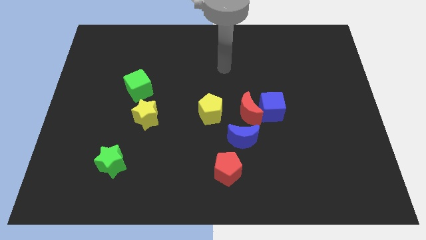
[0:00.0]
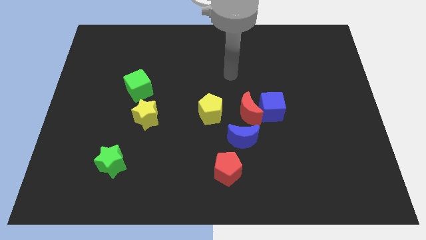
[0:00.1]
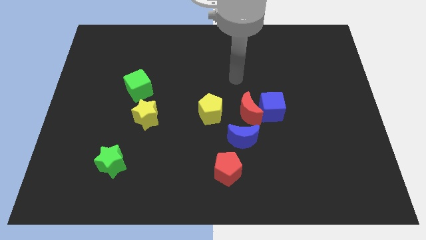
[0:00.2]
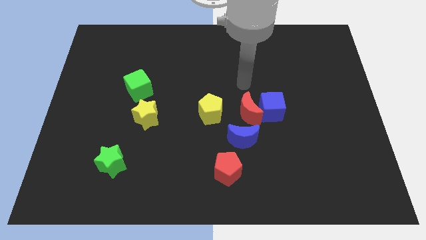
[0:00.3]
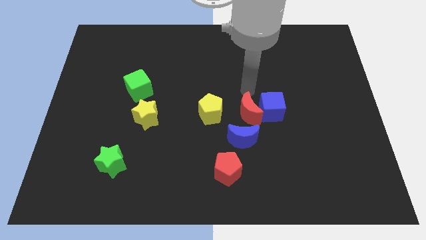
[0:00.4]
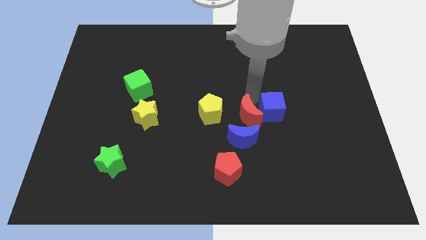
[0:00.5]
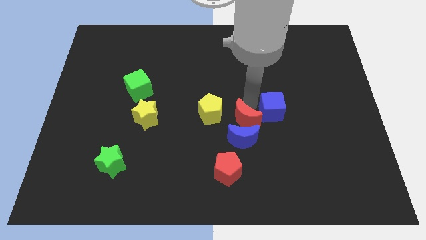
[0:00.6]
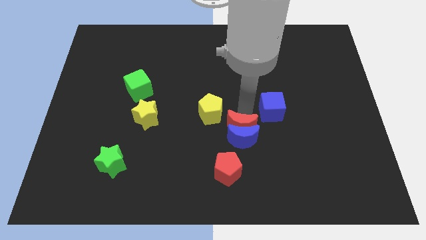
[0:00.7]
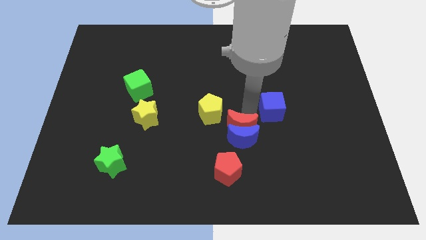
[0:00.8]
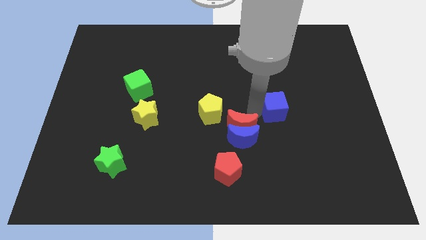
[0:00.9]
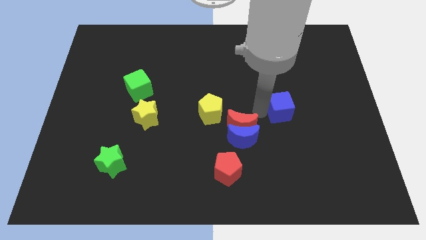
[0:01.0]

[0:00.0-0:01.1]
pull the blue cube apart from the red moon

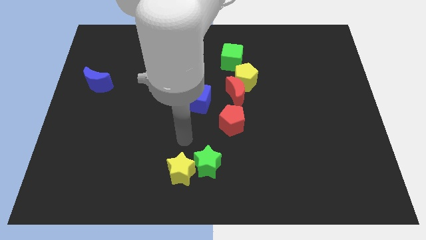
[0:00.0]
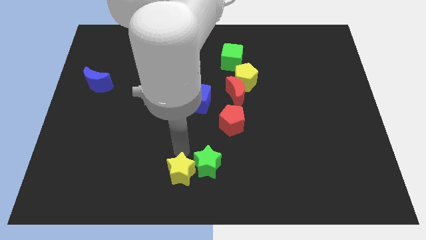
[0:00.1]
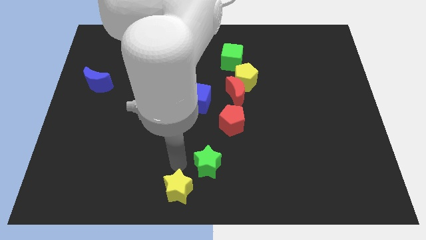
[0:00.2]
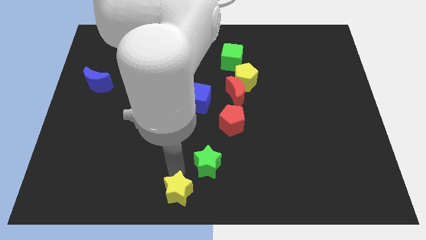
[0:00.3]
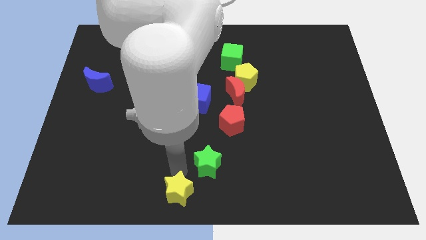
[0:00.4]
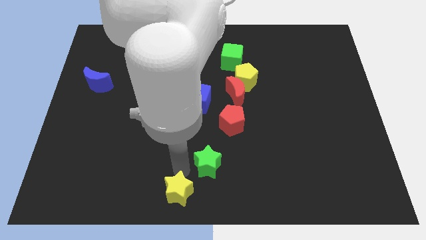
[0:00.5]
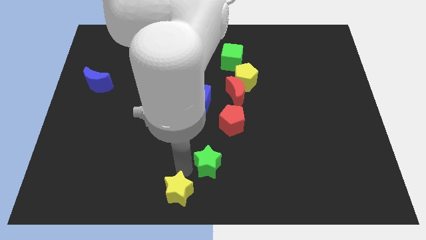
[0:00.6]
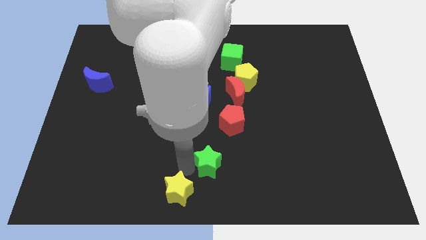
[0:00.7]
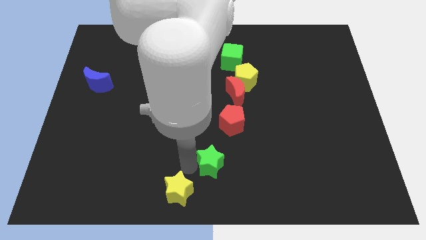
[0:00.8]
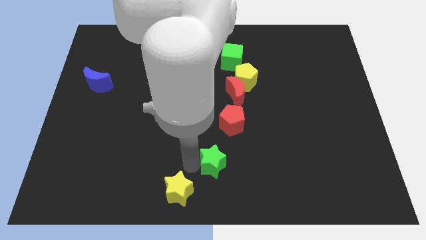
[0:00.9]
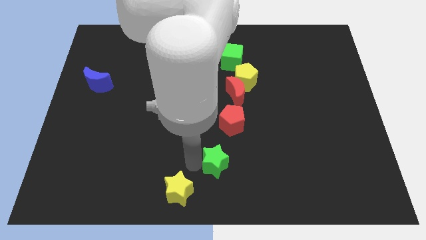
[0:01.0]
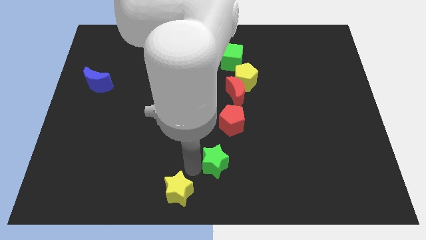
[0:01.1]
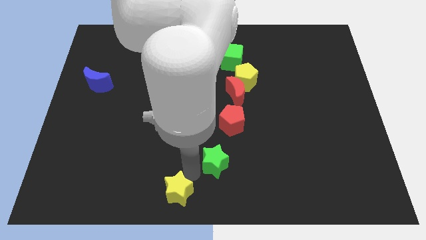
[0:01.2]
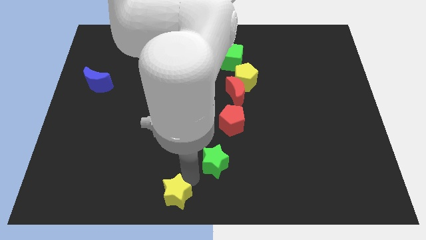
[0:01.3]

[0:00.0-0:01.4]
separate the green star from the yellow star

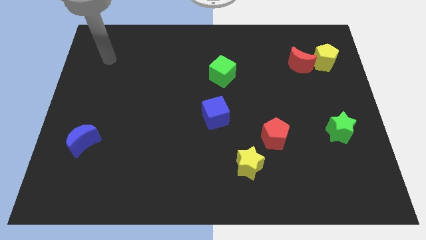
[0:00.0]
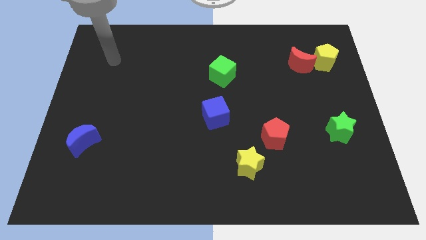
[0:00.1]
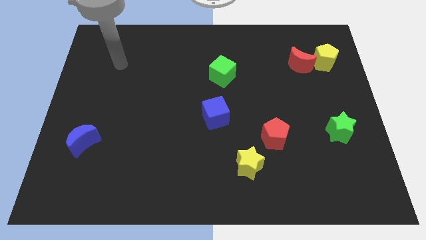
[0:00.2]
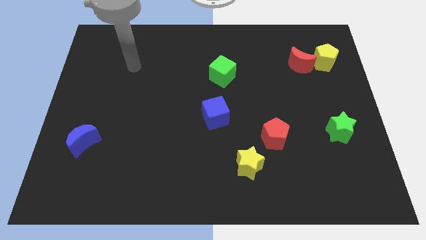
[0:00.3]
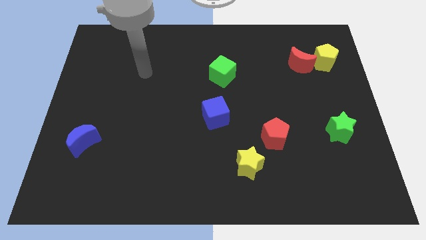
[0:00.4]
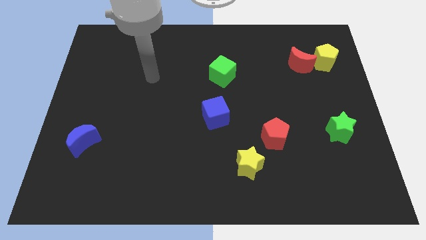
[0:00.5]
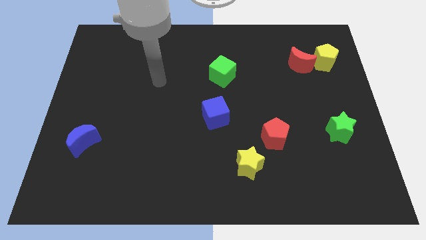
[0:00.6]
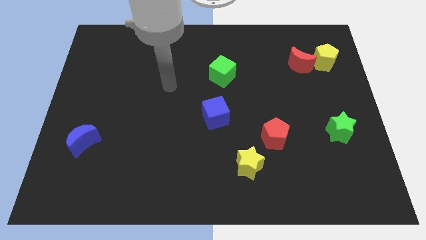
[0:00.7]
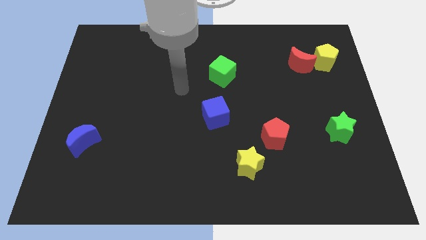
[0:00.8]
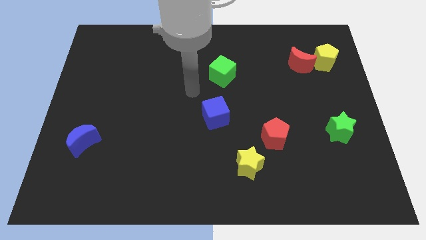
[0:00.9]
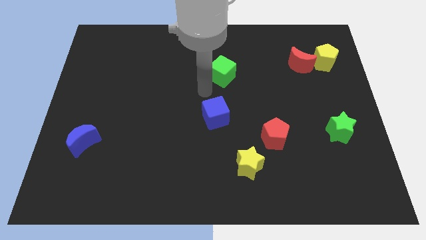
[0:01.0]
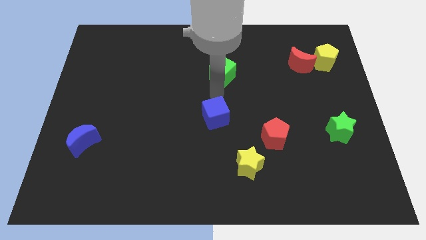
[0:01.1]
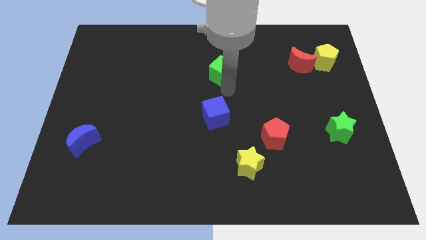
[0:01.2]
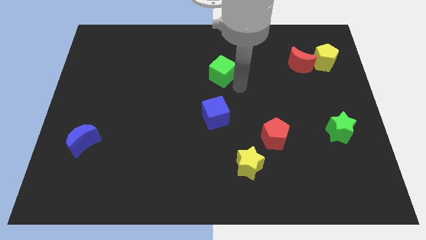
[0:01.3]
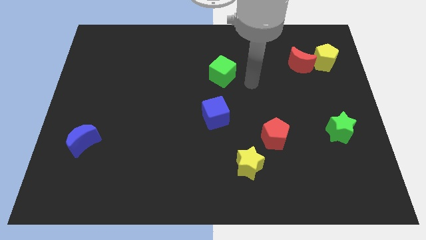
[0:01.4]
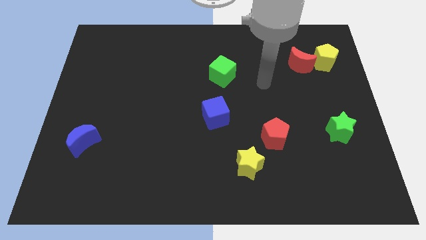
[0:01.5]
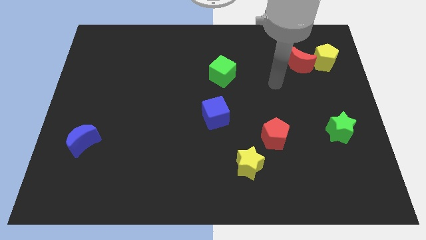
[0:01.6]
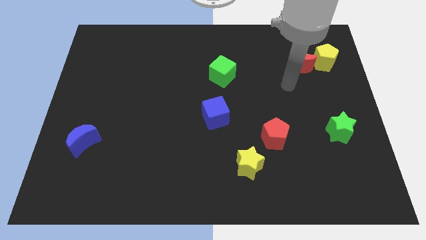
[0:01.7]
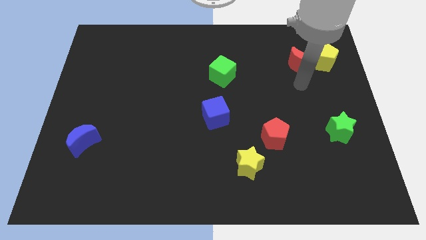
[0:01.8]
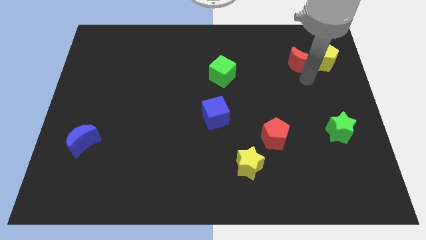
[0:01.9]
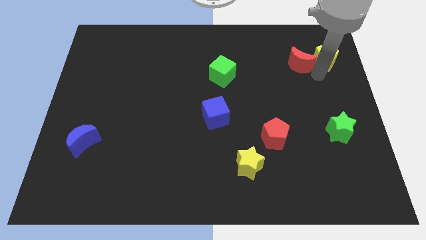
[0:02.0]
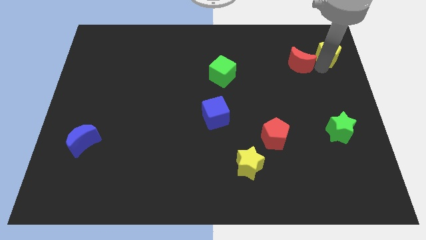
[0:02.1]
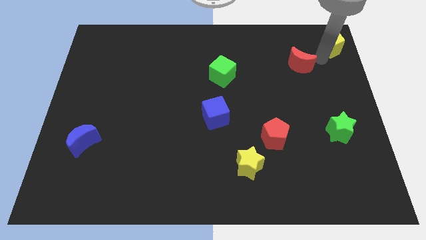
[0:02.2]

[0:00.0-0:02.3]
separate the red moon from the yellow pentagon

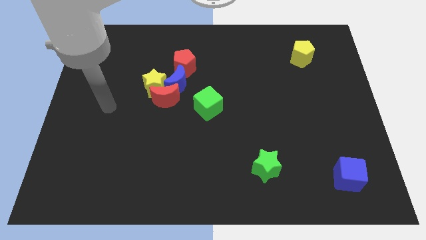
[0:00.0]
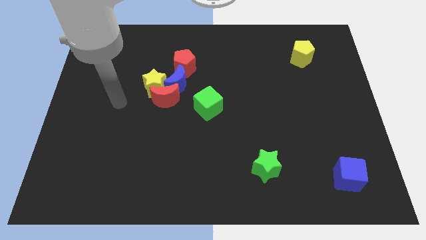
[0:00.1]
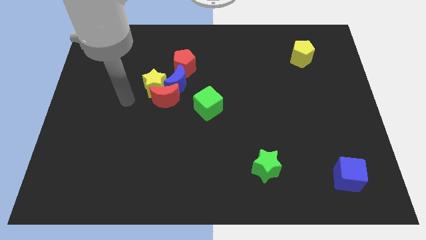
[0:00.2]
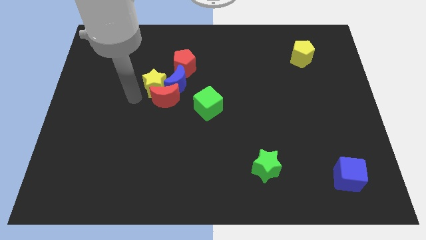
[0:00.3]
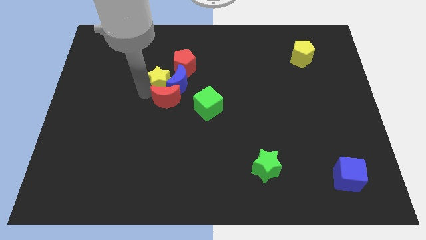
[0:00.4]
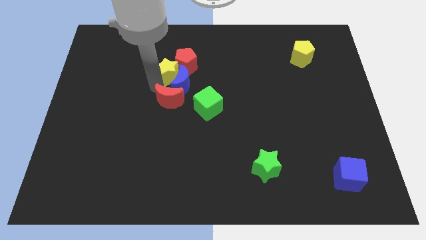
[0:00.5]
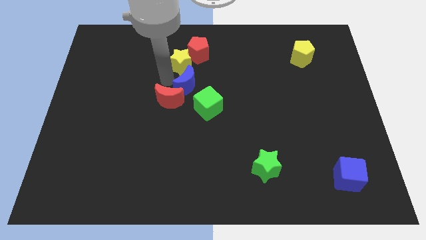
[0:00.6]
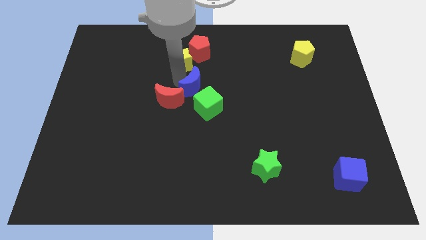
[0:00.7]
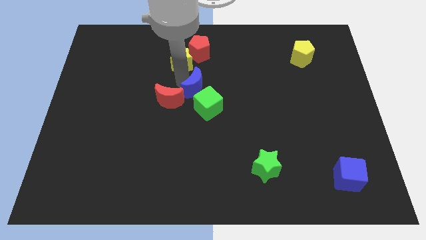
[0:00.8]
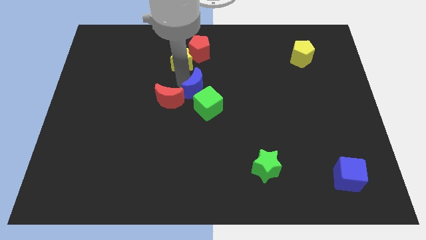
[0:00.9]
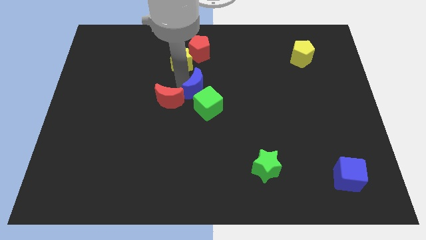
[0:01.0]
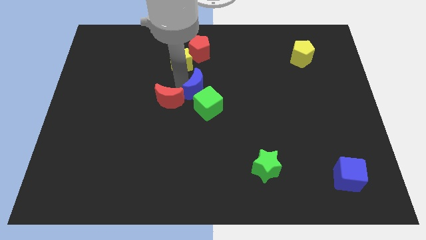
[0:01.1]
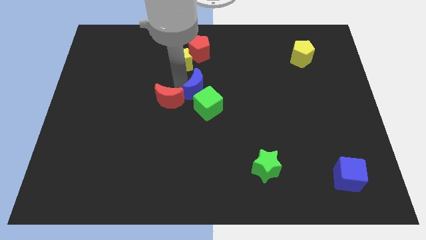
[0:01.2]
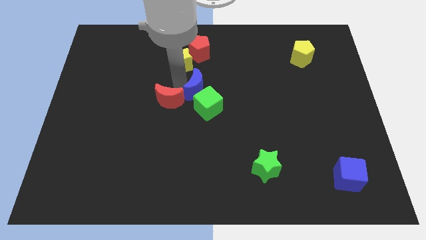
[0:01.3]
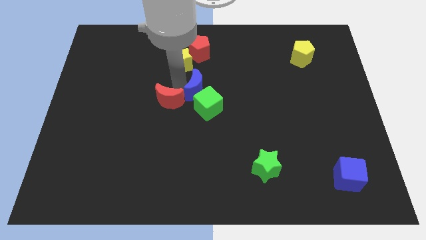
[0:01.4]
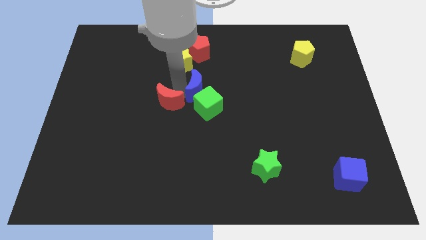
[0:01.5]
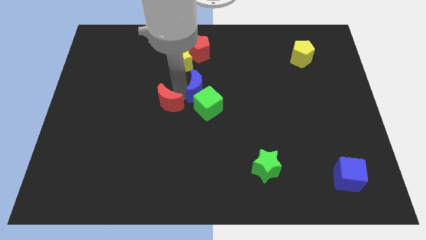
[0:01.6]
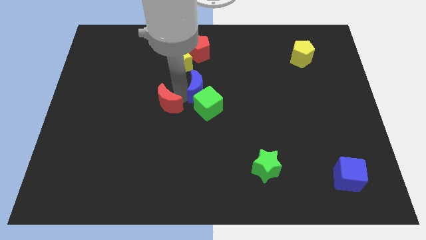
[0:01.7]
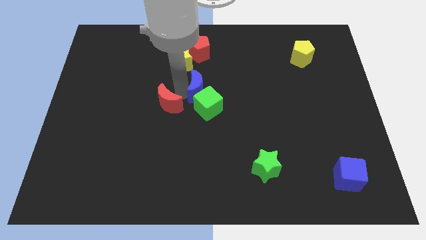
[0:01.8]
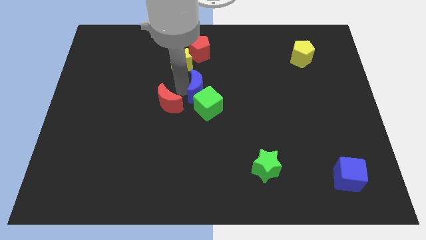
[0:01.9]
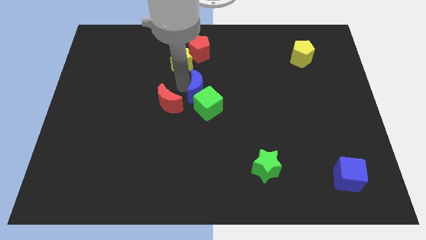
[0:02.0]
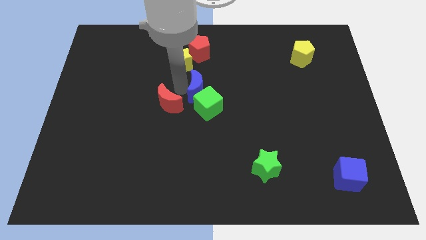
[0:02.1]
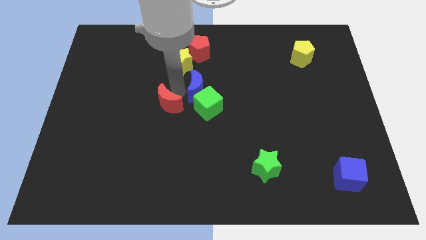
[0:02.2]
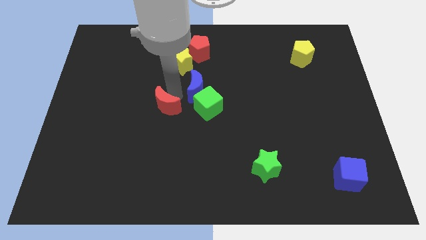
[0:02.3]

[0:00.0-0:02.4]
separate the red moon from the yellow star and blue moon

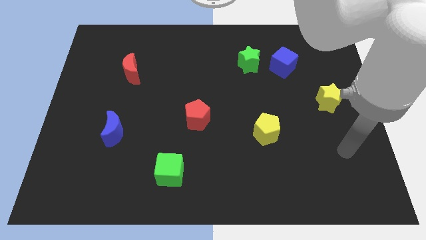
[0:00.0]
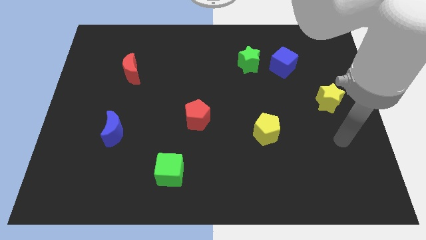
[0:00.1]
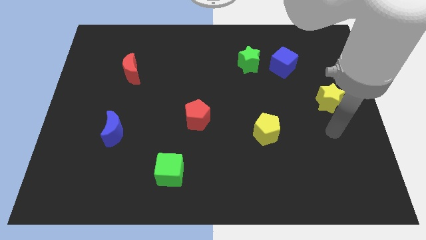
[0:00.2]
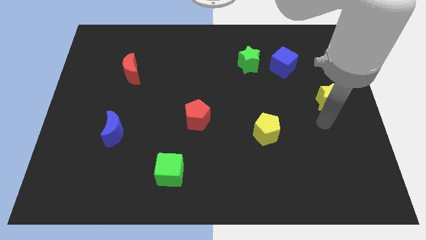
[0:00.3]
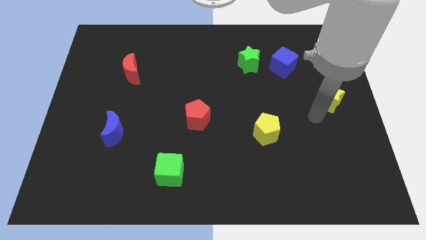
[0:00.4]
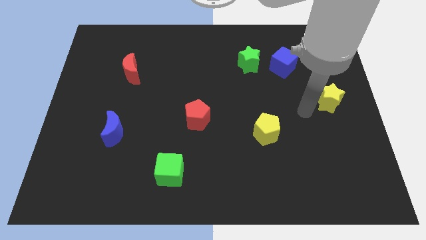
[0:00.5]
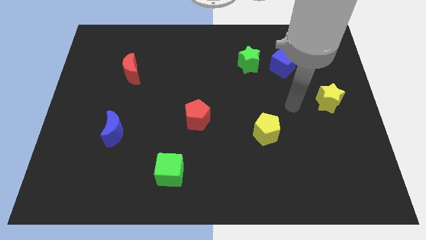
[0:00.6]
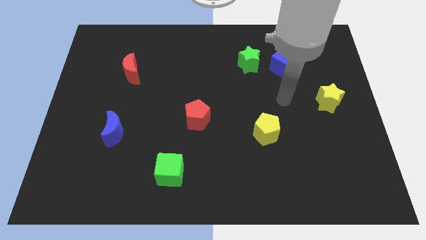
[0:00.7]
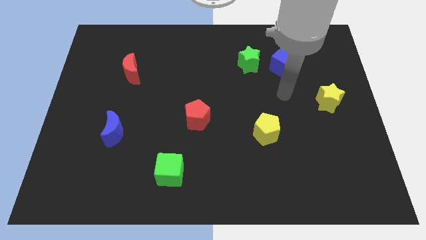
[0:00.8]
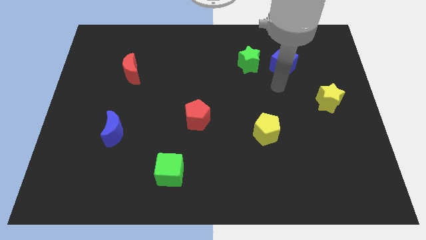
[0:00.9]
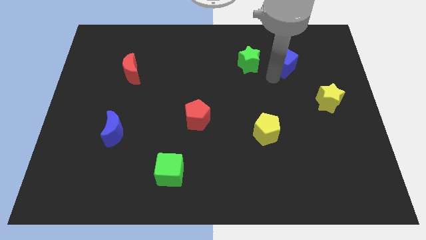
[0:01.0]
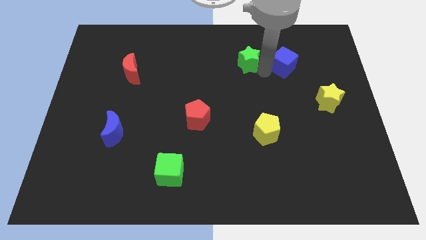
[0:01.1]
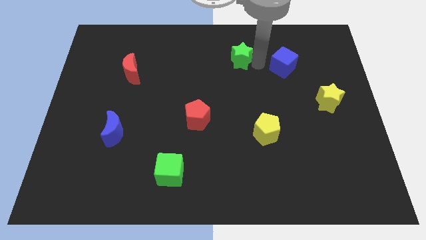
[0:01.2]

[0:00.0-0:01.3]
pull the blue cube apart from the green star

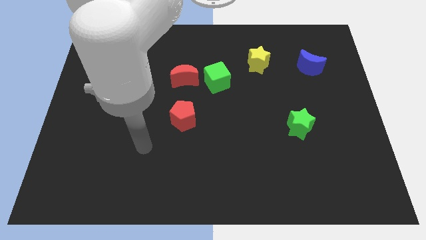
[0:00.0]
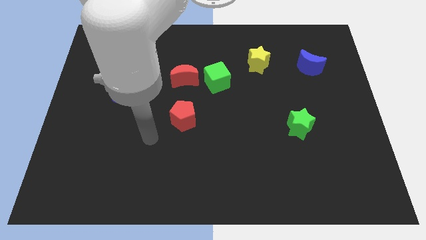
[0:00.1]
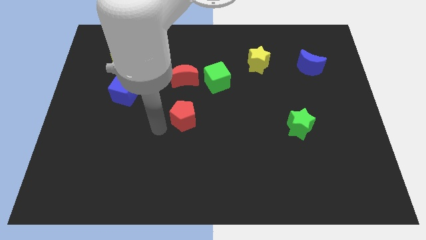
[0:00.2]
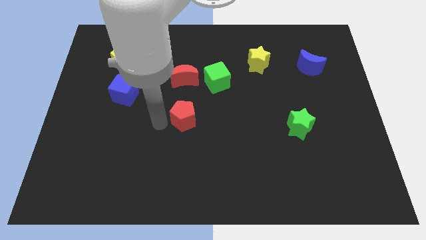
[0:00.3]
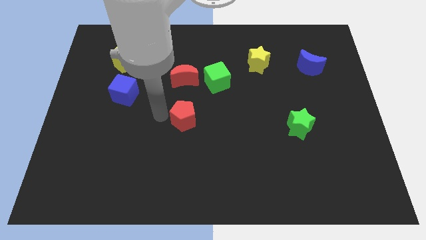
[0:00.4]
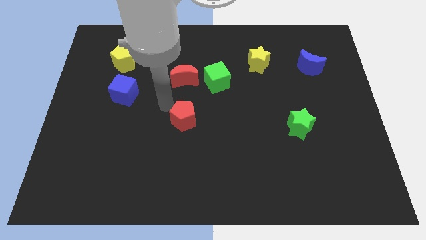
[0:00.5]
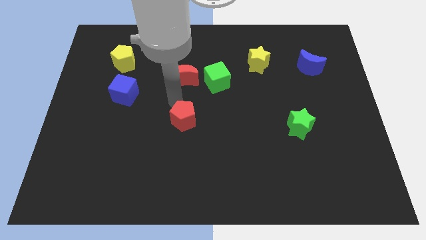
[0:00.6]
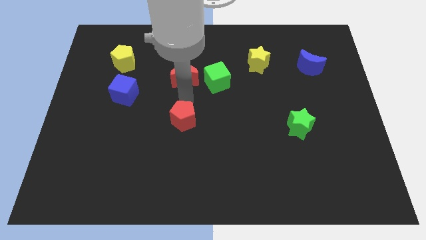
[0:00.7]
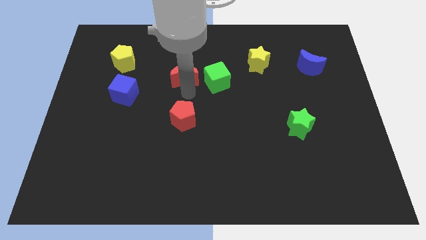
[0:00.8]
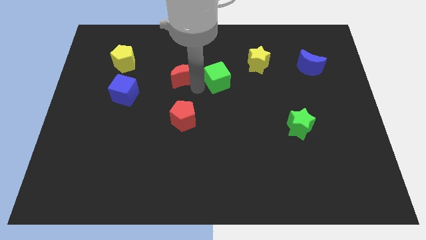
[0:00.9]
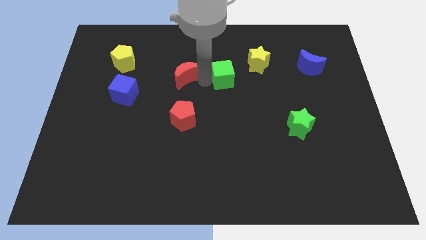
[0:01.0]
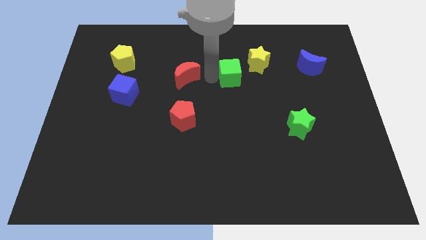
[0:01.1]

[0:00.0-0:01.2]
separate the red moon from the green cube
